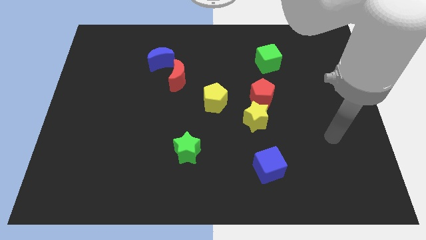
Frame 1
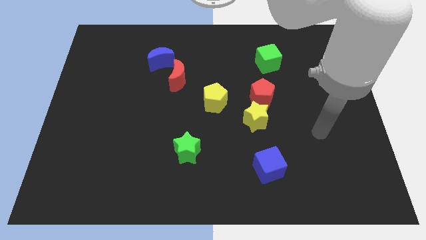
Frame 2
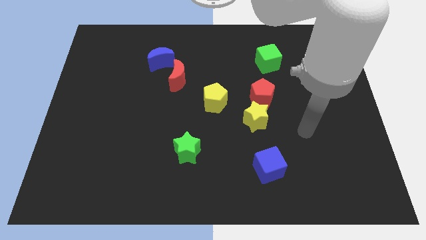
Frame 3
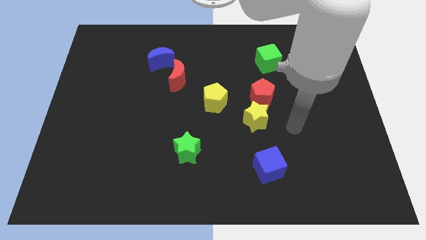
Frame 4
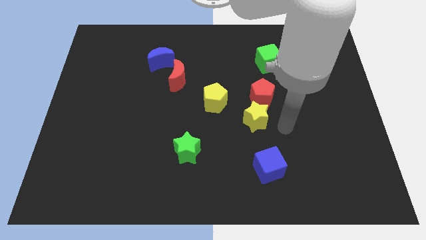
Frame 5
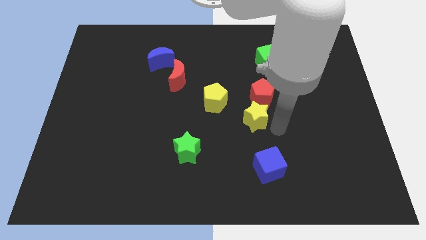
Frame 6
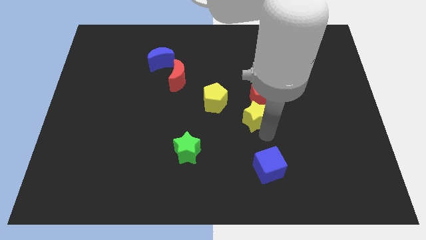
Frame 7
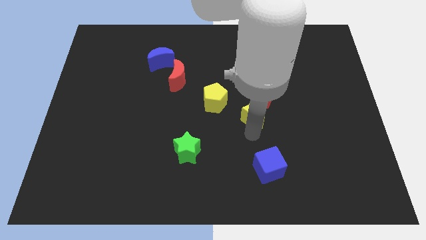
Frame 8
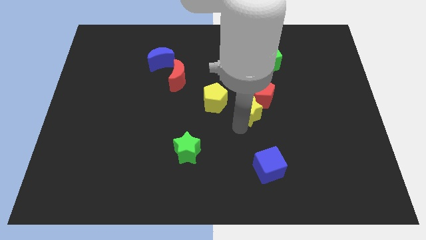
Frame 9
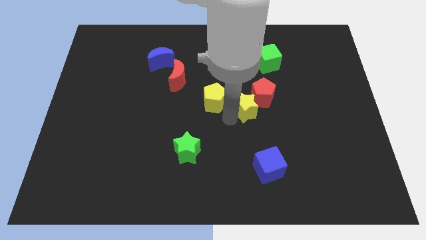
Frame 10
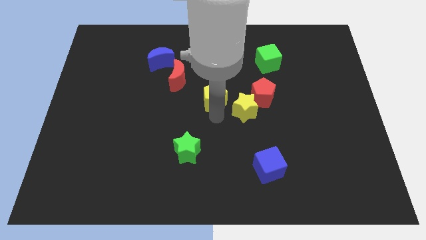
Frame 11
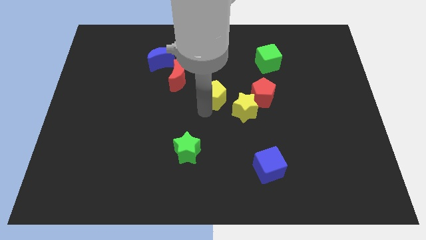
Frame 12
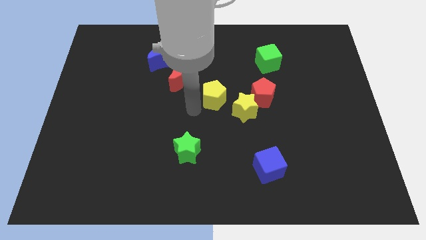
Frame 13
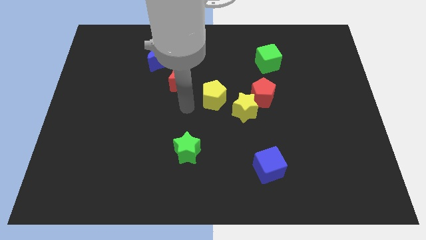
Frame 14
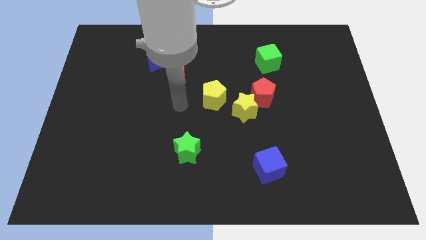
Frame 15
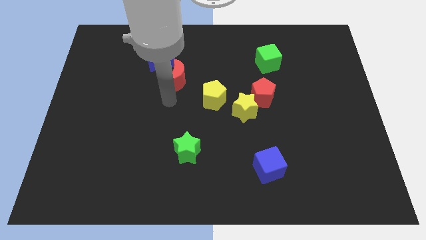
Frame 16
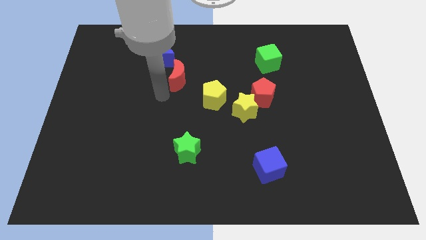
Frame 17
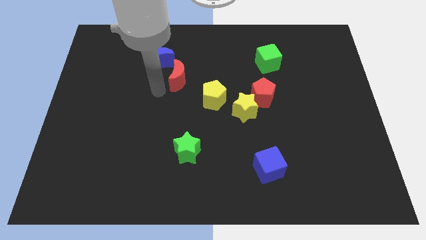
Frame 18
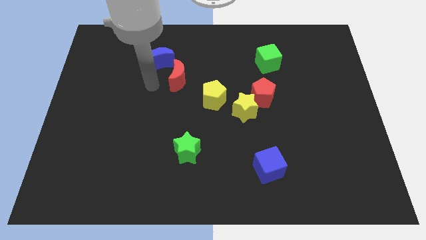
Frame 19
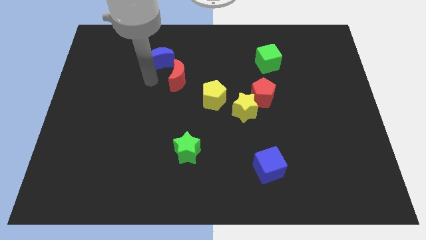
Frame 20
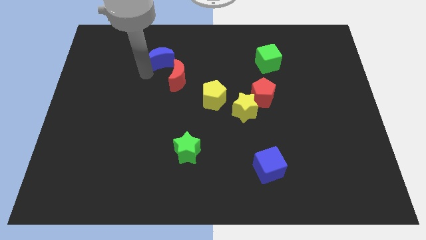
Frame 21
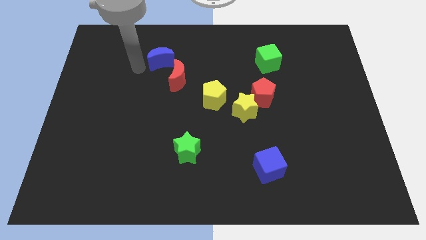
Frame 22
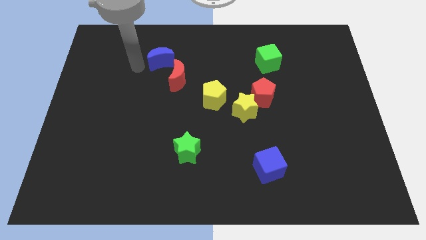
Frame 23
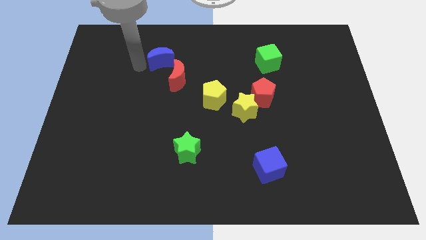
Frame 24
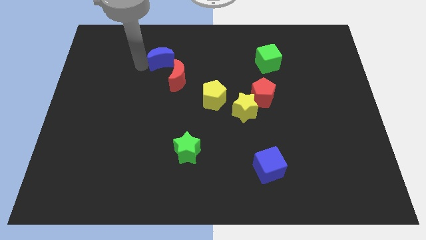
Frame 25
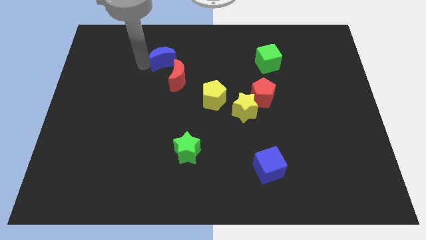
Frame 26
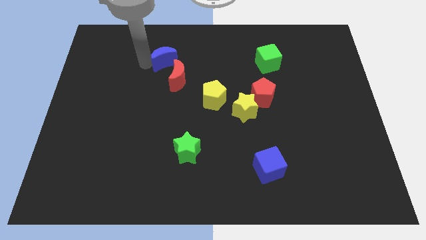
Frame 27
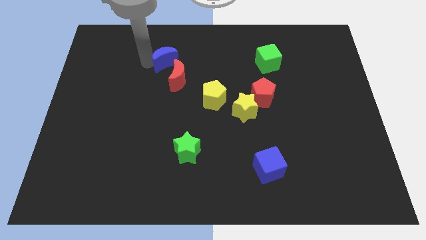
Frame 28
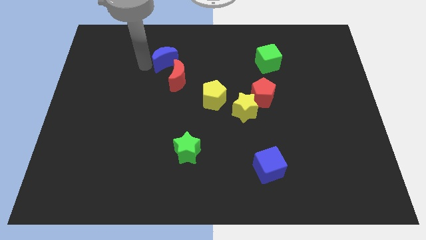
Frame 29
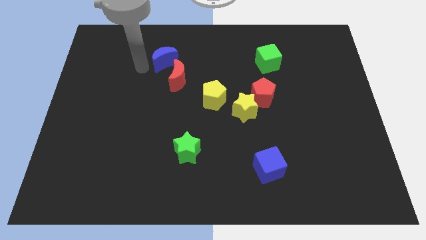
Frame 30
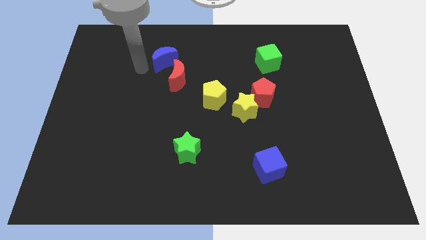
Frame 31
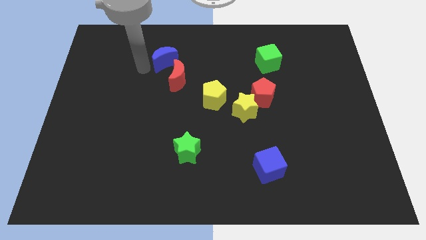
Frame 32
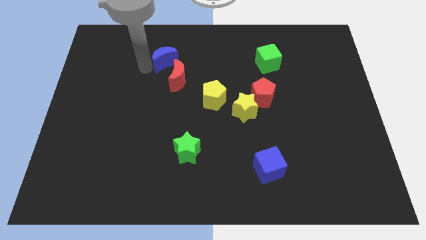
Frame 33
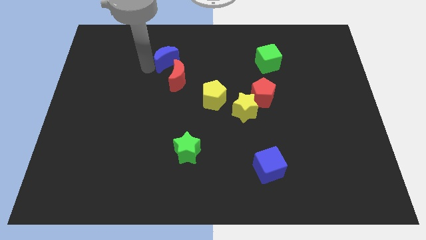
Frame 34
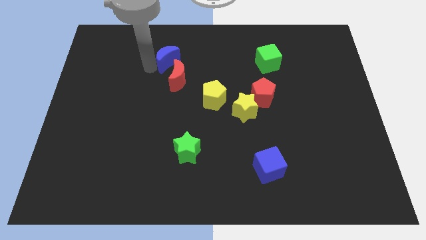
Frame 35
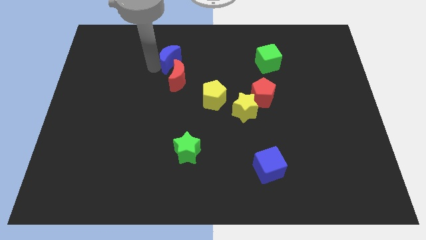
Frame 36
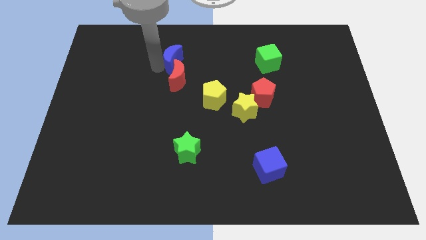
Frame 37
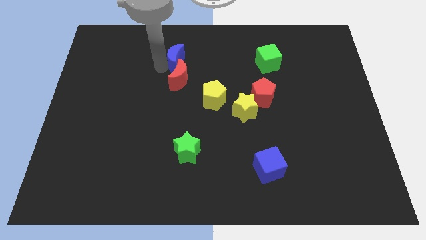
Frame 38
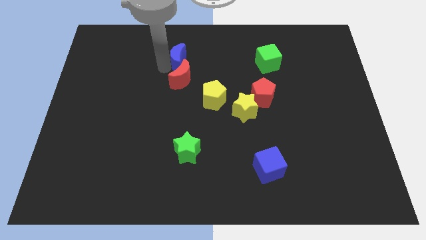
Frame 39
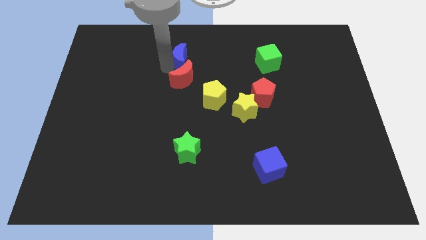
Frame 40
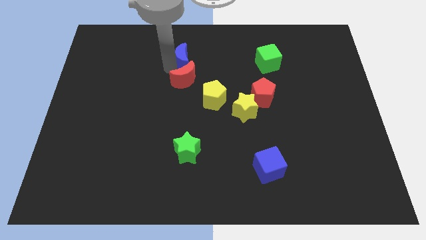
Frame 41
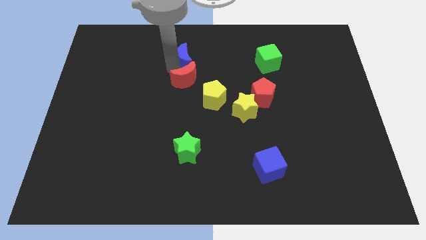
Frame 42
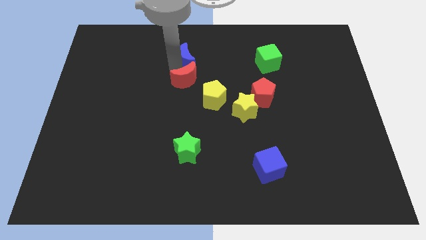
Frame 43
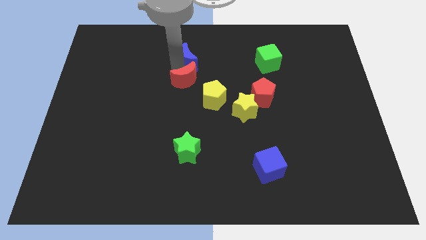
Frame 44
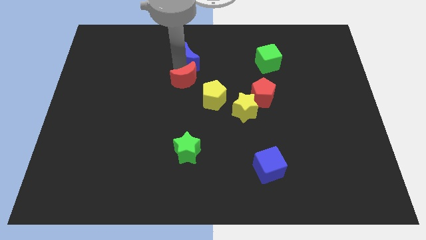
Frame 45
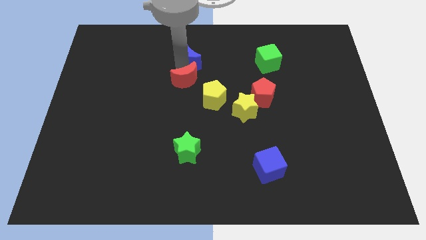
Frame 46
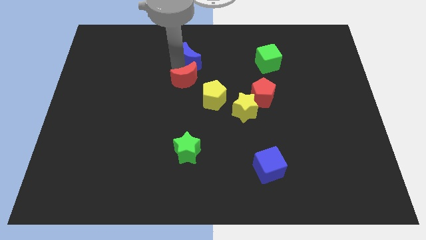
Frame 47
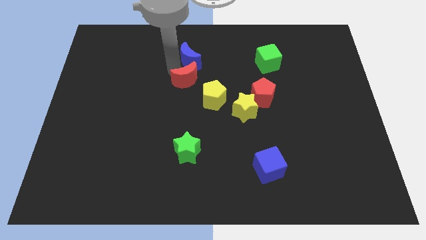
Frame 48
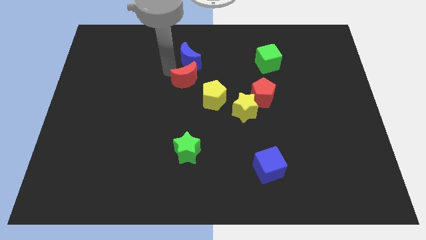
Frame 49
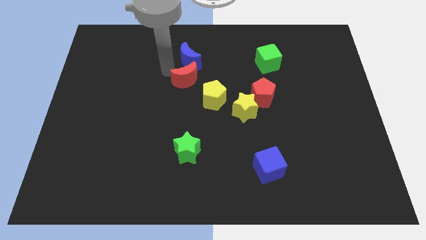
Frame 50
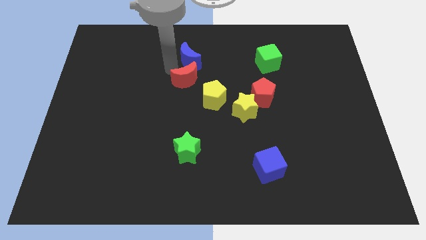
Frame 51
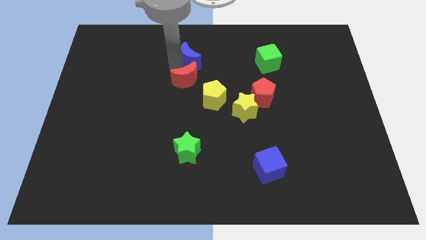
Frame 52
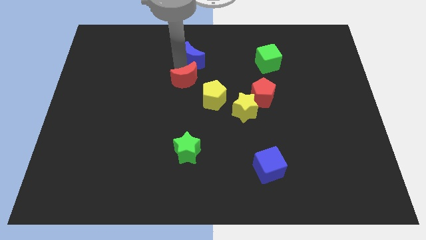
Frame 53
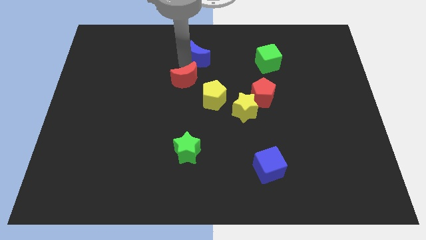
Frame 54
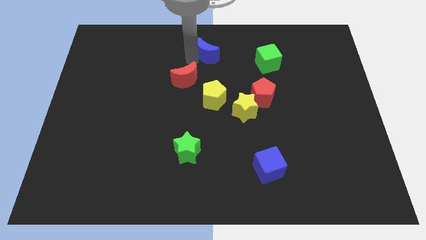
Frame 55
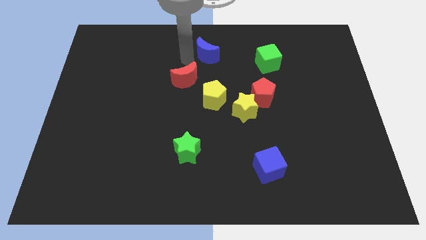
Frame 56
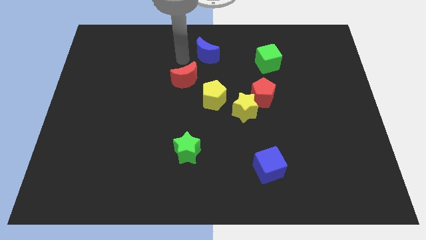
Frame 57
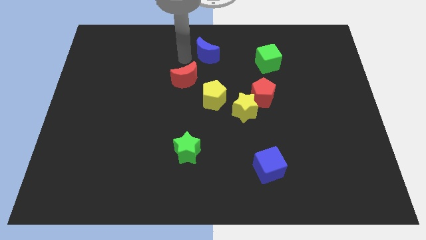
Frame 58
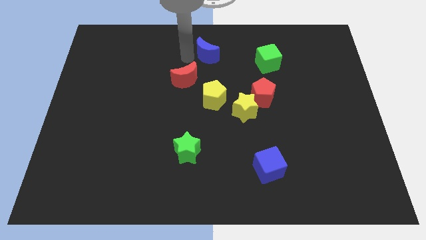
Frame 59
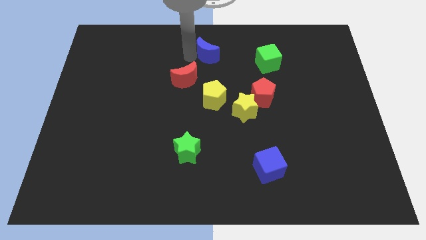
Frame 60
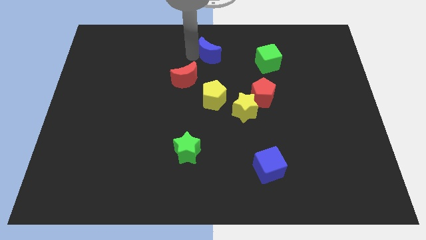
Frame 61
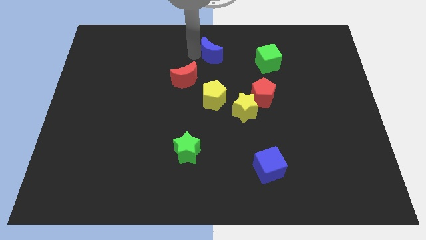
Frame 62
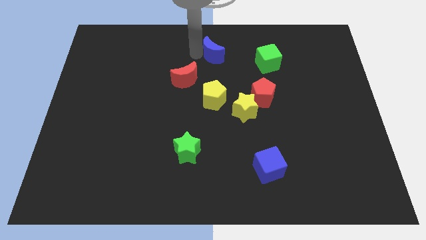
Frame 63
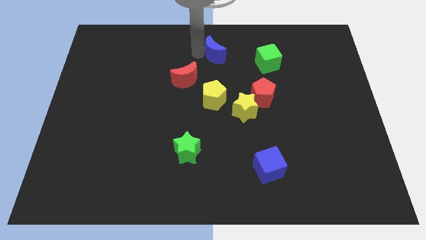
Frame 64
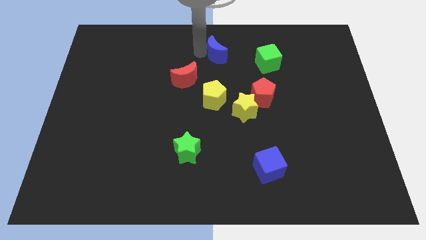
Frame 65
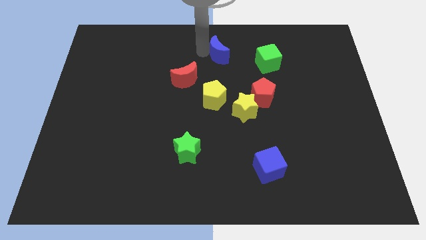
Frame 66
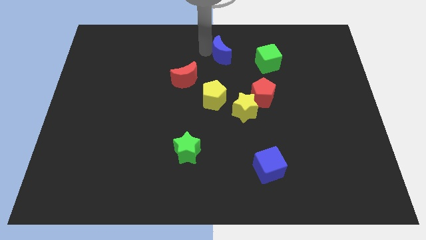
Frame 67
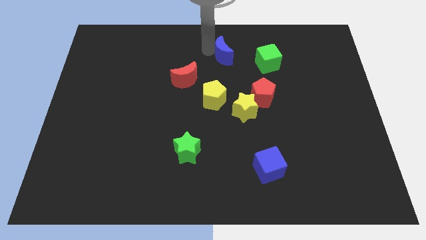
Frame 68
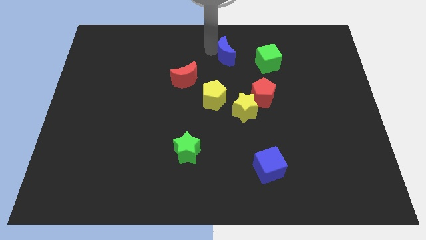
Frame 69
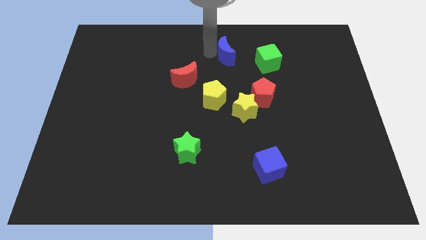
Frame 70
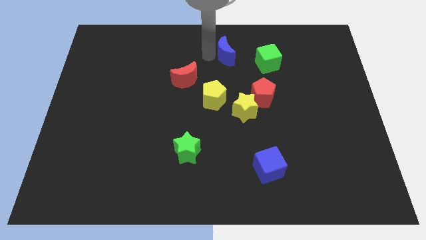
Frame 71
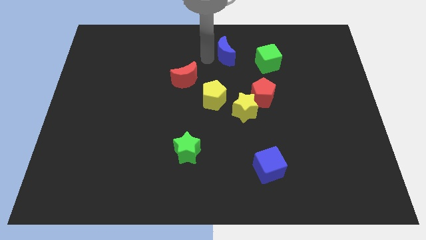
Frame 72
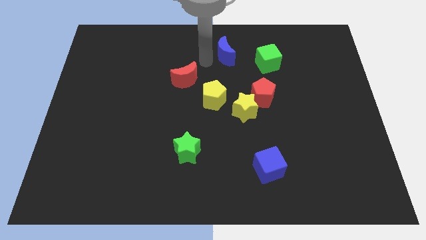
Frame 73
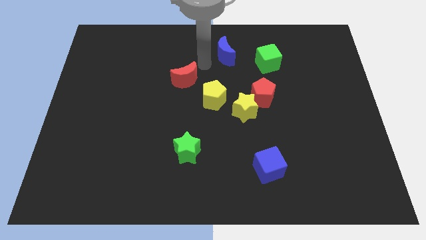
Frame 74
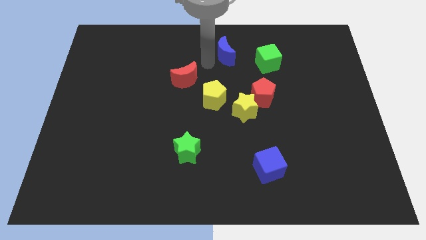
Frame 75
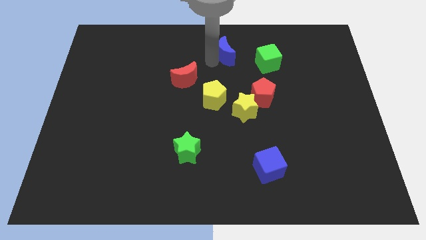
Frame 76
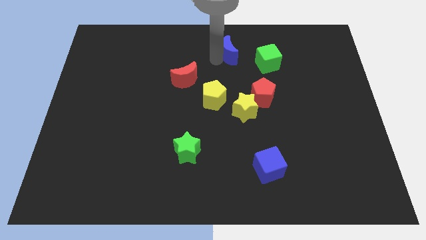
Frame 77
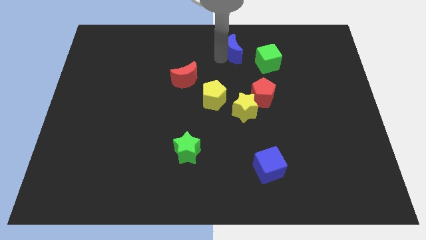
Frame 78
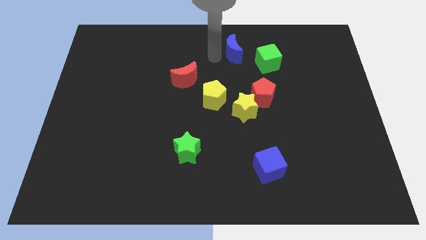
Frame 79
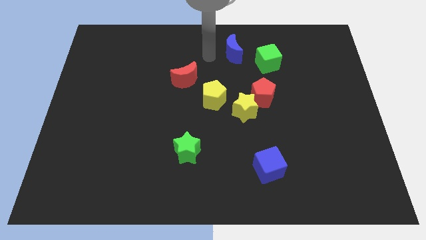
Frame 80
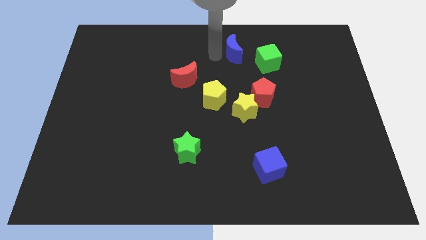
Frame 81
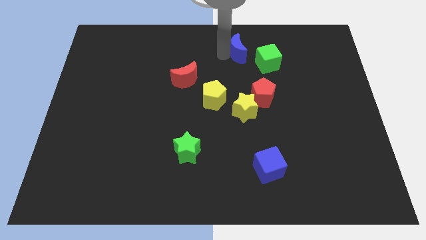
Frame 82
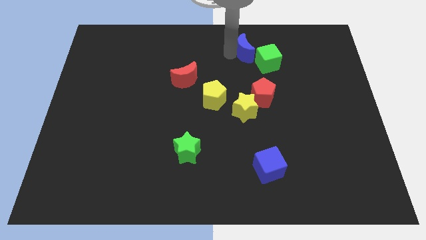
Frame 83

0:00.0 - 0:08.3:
push the blue moon right
